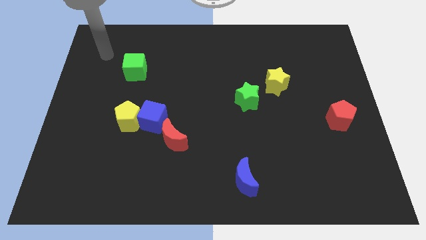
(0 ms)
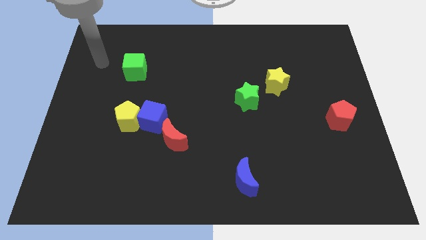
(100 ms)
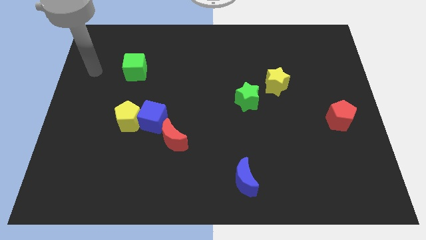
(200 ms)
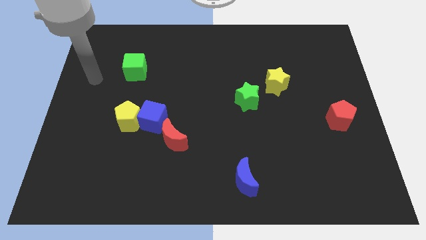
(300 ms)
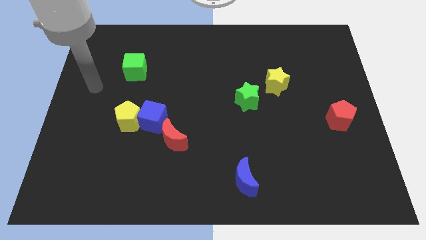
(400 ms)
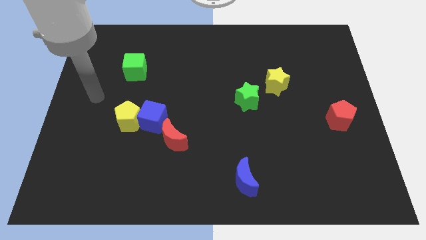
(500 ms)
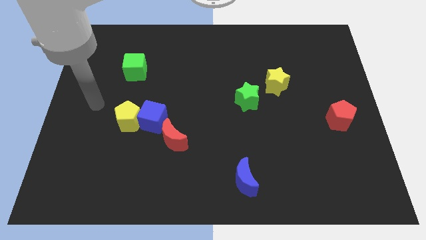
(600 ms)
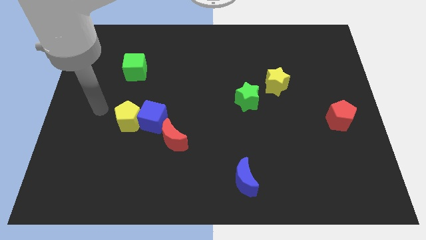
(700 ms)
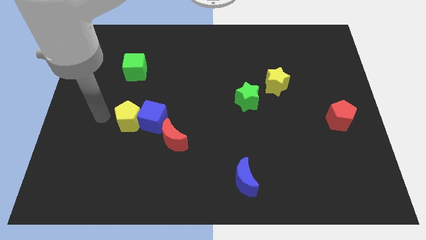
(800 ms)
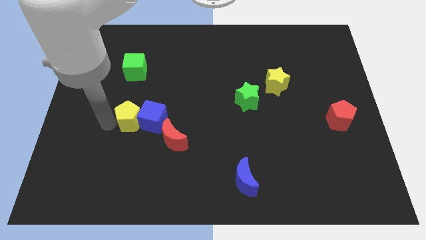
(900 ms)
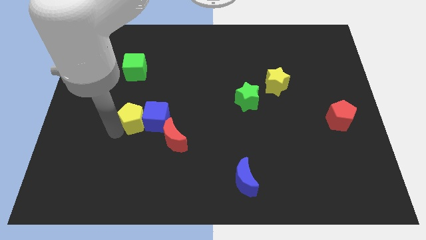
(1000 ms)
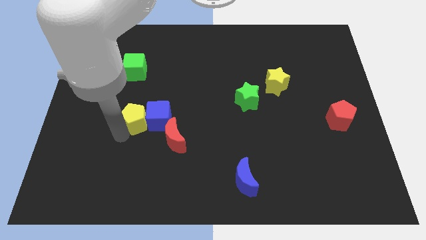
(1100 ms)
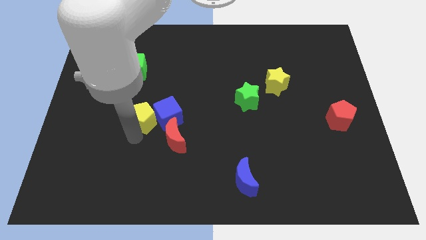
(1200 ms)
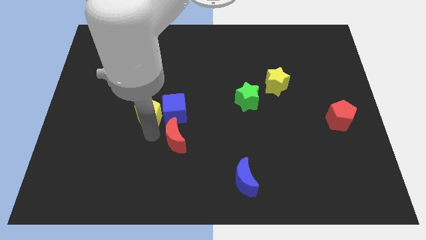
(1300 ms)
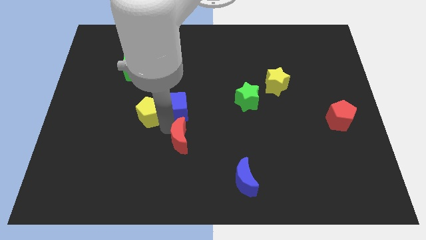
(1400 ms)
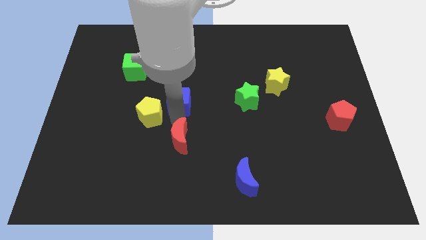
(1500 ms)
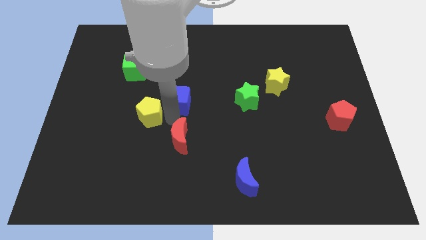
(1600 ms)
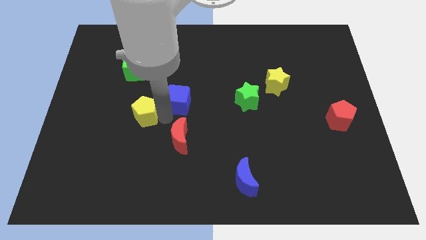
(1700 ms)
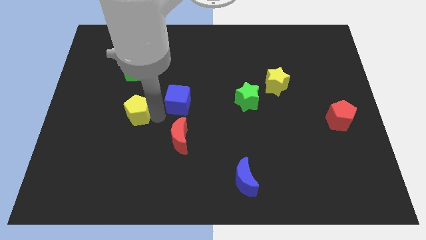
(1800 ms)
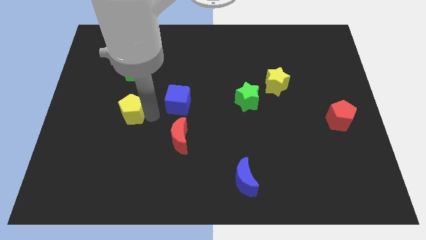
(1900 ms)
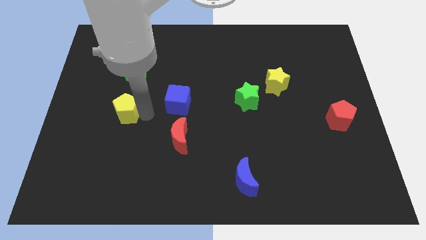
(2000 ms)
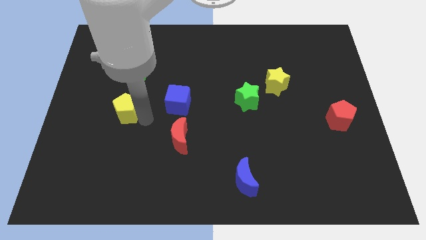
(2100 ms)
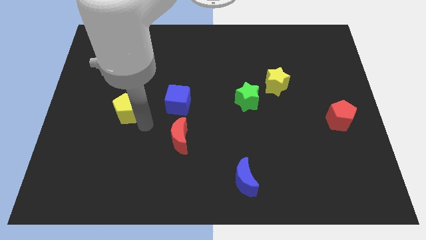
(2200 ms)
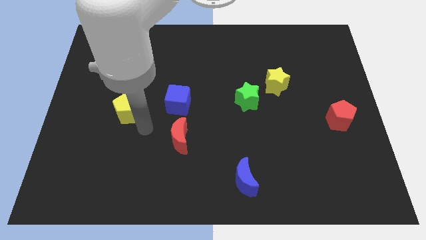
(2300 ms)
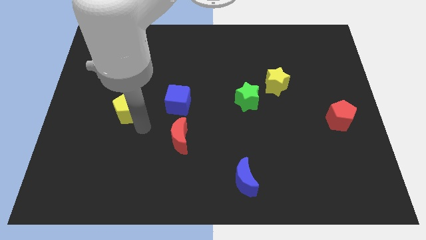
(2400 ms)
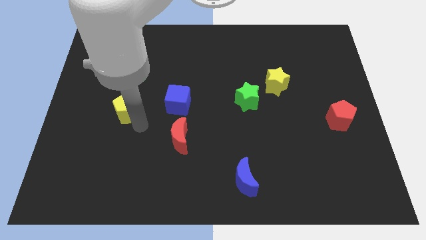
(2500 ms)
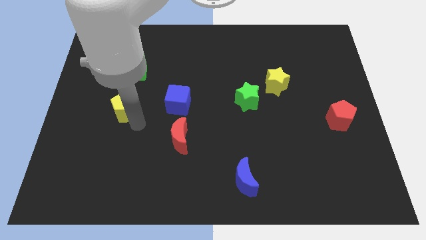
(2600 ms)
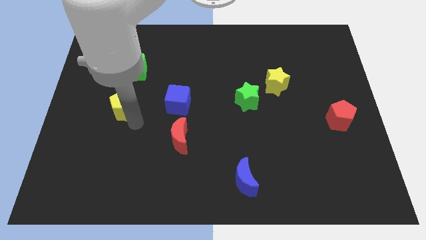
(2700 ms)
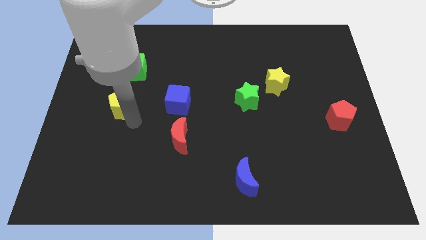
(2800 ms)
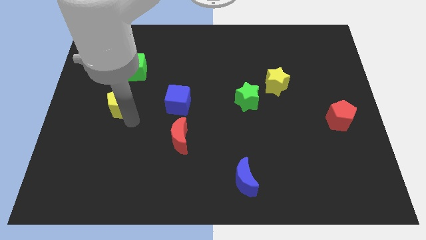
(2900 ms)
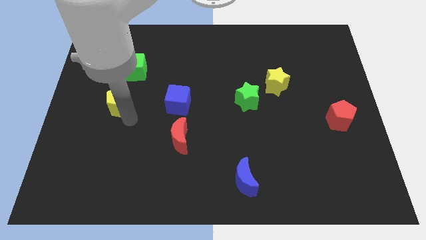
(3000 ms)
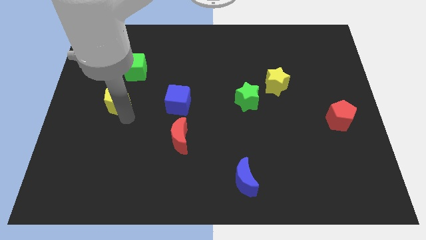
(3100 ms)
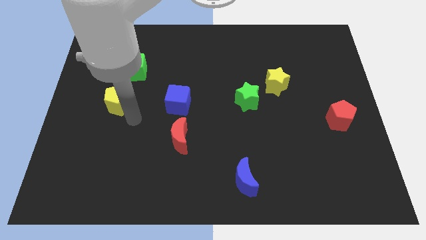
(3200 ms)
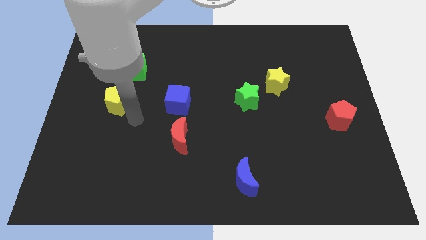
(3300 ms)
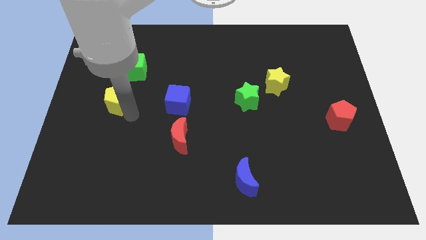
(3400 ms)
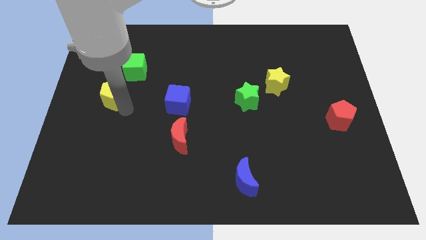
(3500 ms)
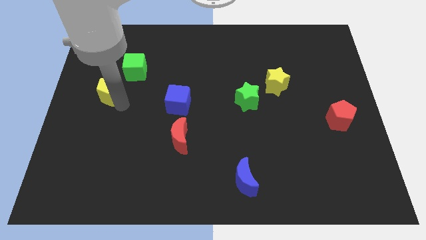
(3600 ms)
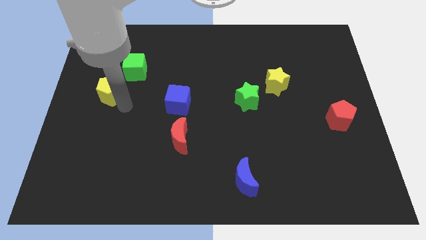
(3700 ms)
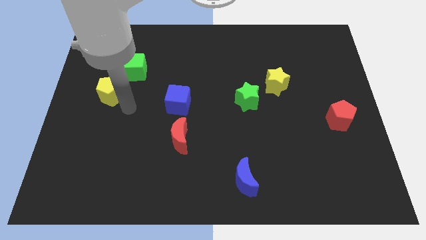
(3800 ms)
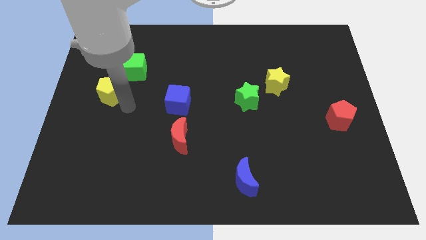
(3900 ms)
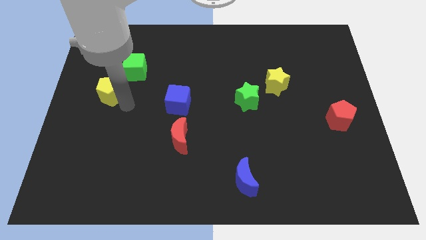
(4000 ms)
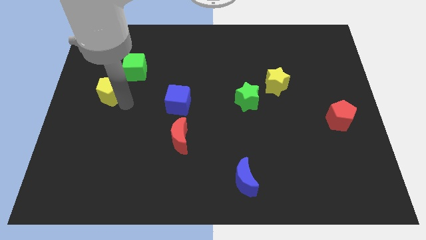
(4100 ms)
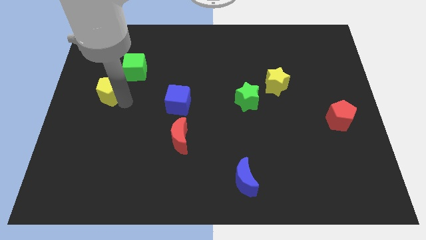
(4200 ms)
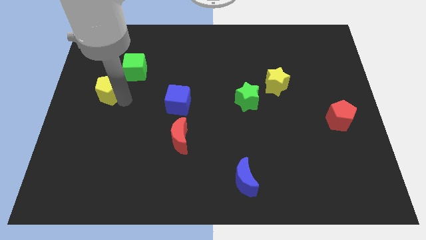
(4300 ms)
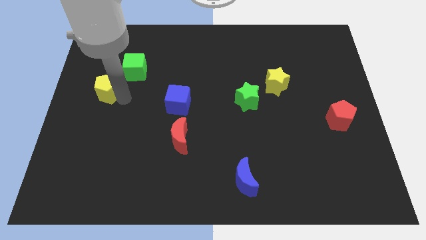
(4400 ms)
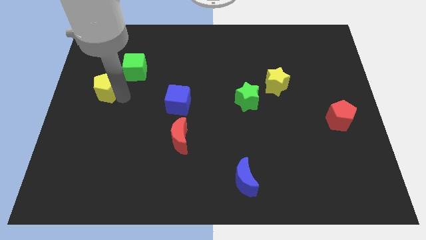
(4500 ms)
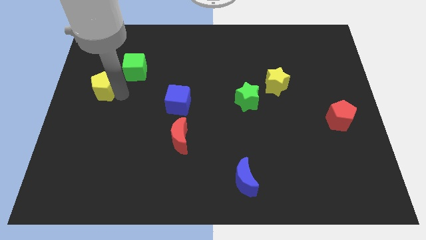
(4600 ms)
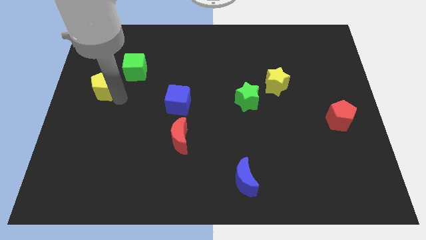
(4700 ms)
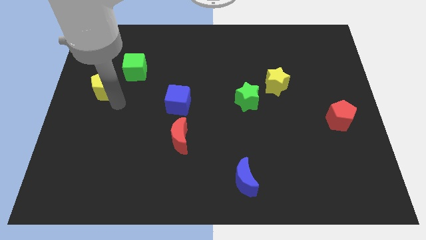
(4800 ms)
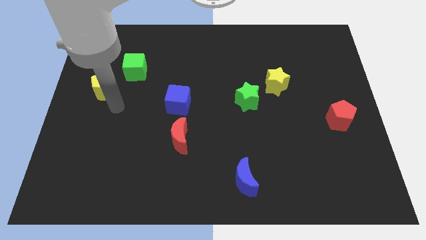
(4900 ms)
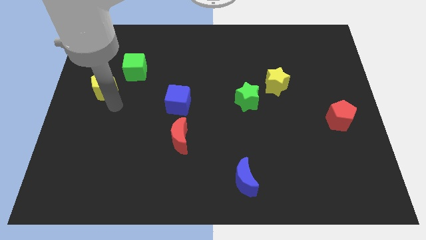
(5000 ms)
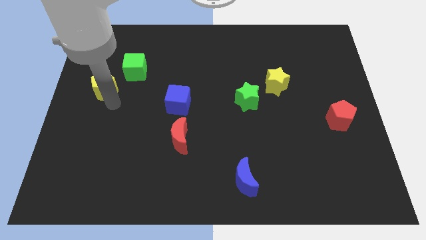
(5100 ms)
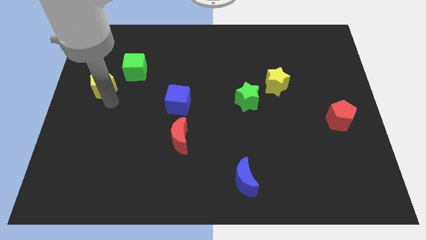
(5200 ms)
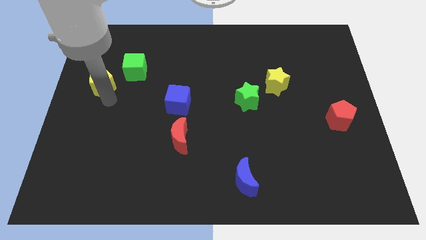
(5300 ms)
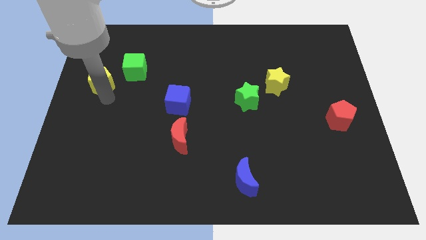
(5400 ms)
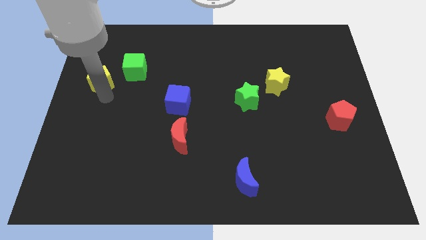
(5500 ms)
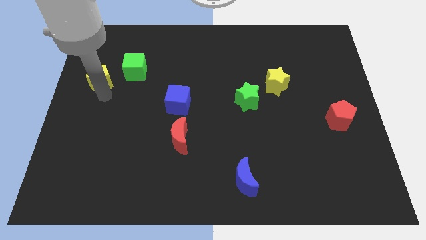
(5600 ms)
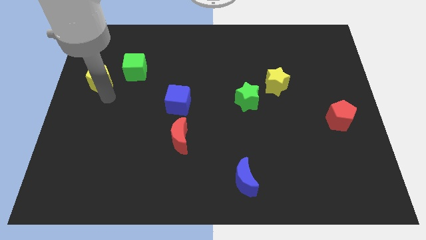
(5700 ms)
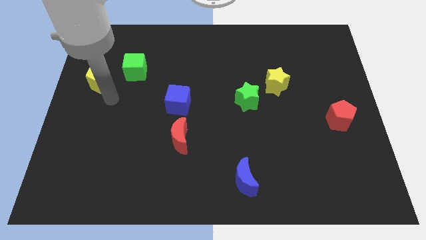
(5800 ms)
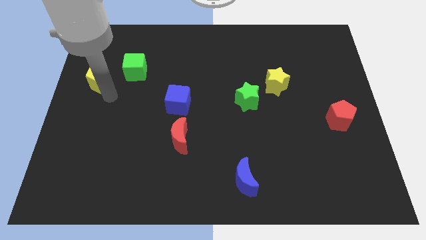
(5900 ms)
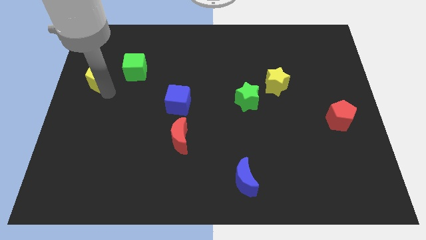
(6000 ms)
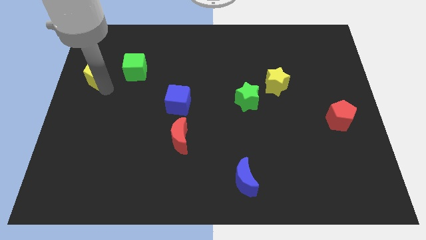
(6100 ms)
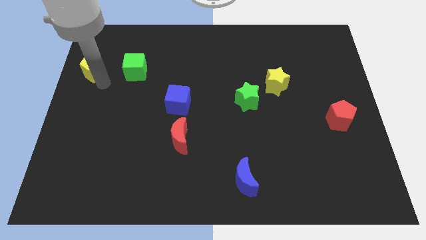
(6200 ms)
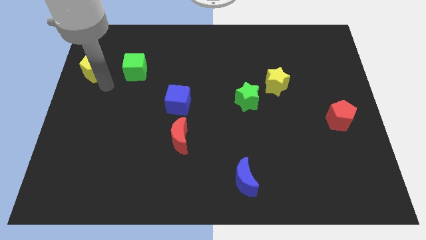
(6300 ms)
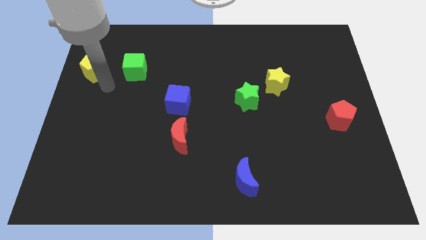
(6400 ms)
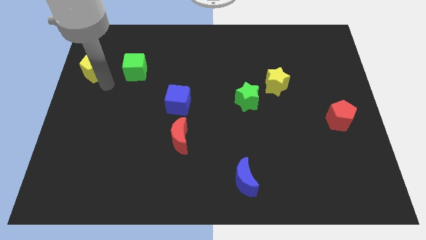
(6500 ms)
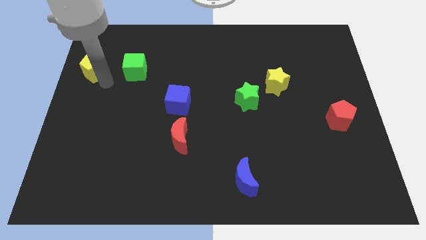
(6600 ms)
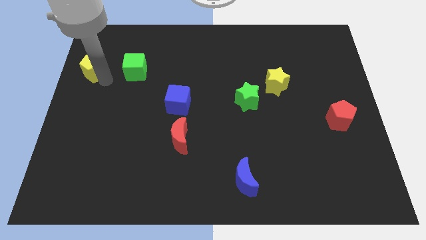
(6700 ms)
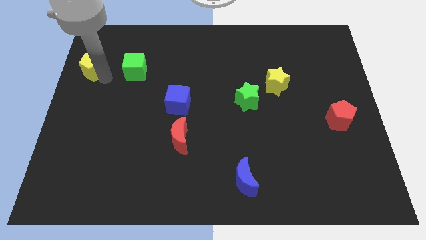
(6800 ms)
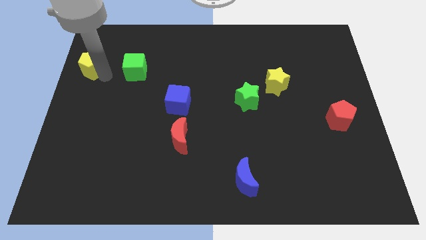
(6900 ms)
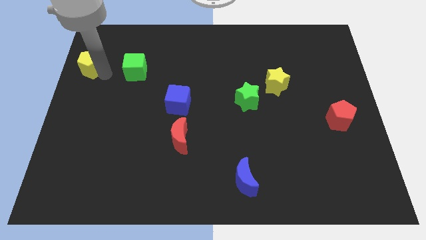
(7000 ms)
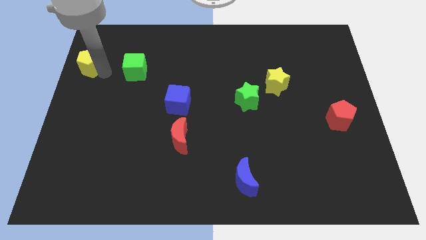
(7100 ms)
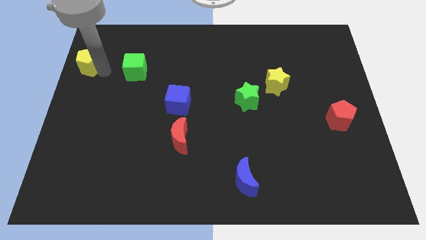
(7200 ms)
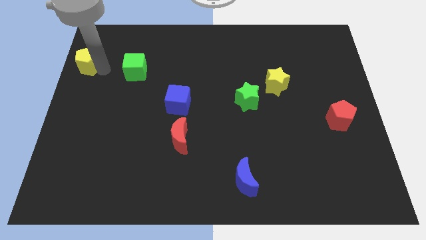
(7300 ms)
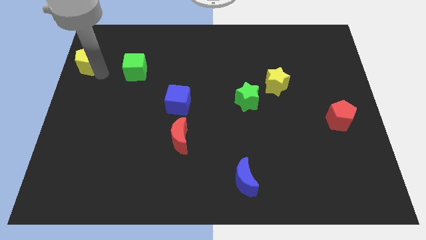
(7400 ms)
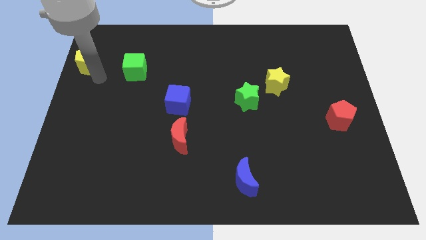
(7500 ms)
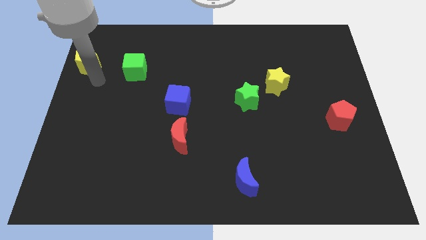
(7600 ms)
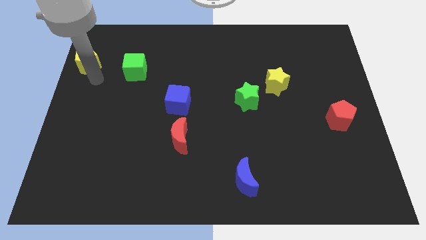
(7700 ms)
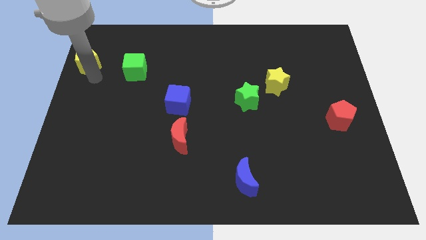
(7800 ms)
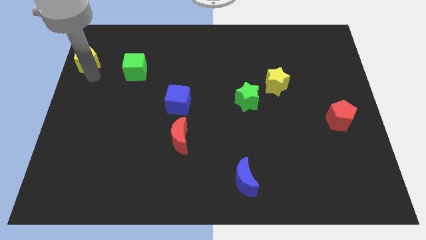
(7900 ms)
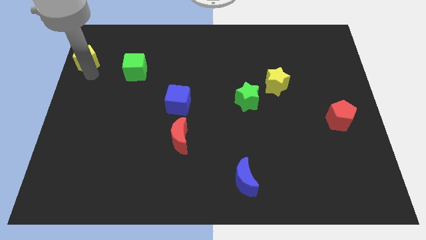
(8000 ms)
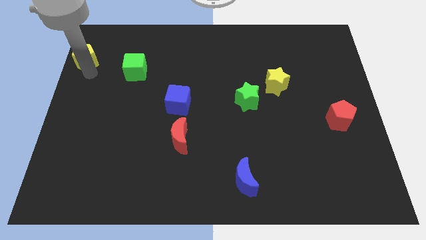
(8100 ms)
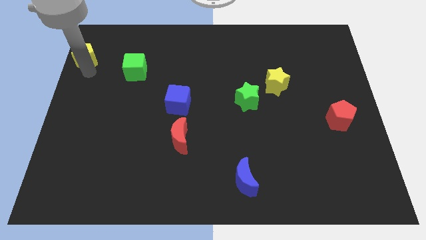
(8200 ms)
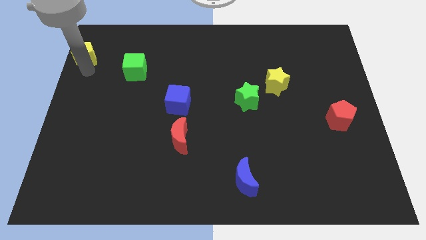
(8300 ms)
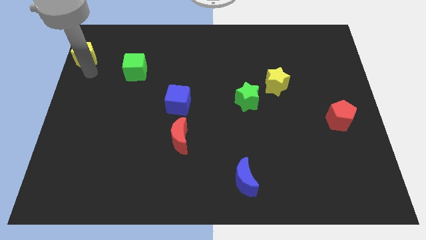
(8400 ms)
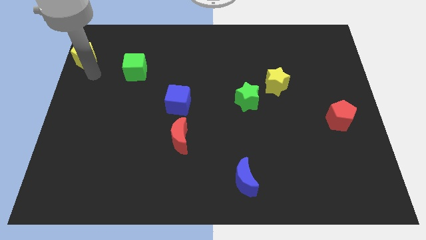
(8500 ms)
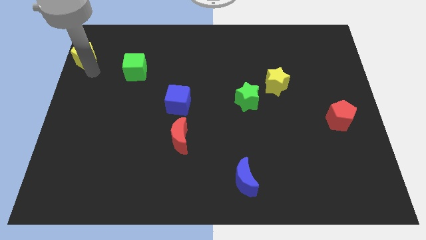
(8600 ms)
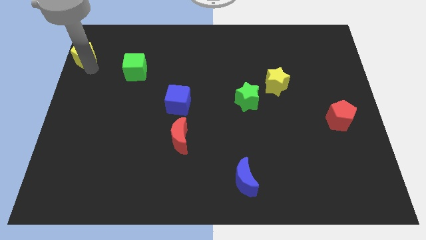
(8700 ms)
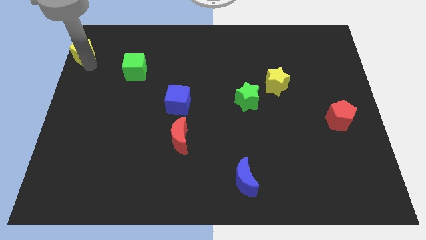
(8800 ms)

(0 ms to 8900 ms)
slide the yellow pentagon to the top left of the board
